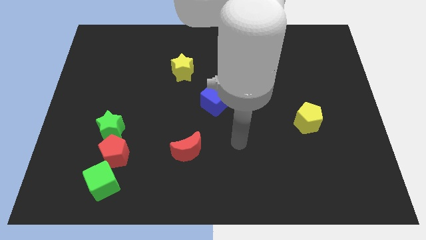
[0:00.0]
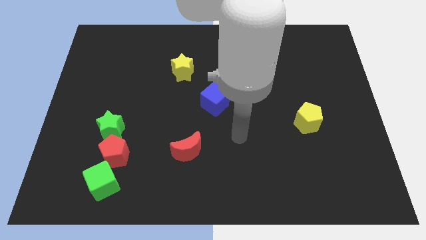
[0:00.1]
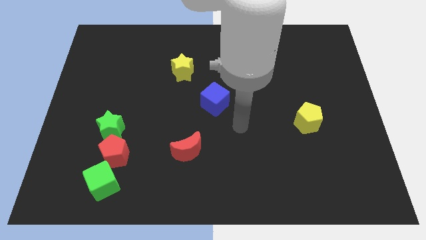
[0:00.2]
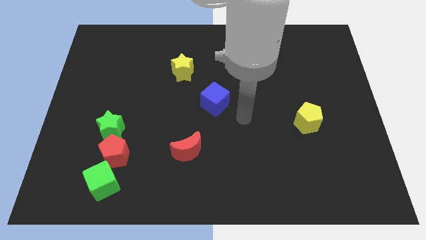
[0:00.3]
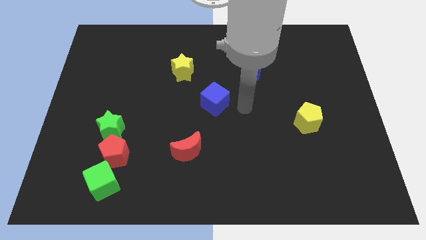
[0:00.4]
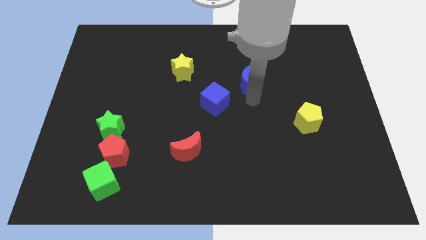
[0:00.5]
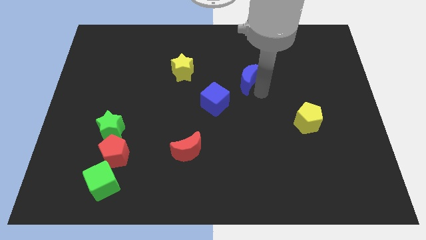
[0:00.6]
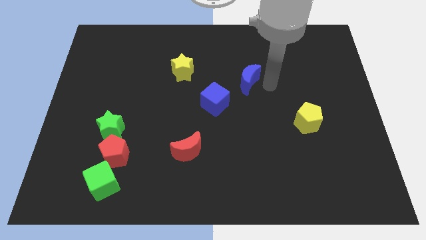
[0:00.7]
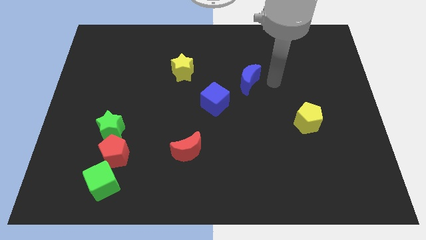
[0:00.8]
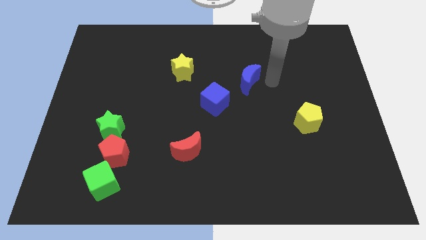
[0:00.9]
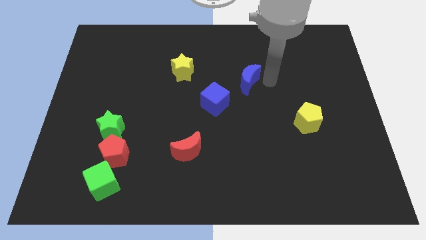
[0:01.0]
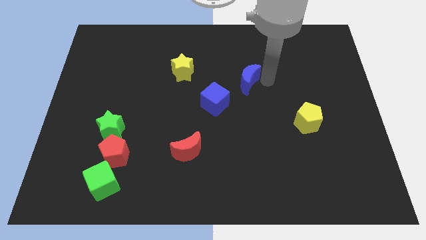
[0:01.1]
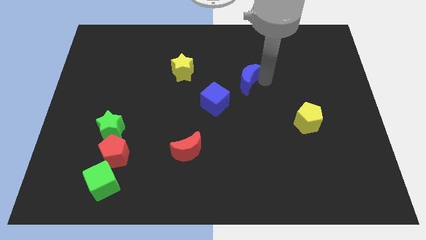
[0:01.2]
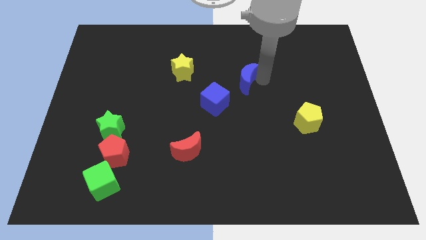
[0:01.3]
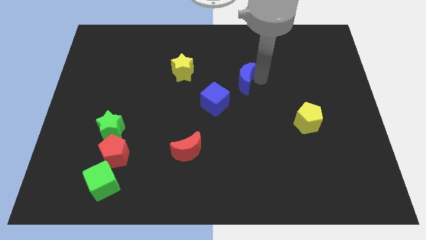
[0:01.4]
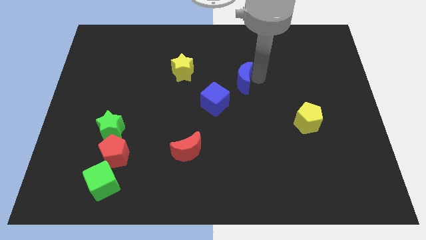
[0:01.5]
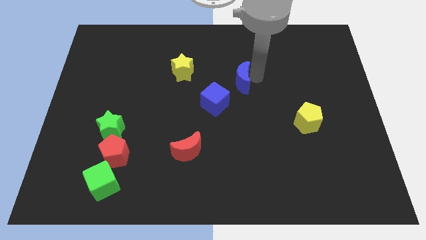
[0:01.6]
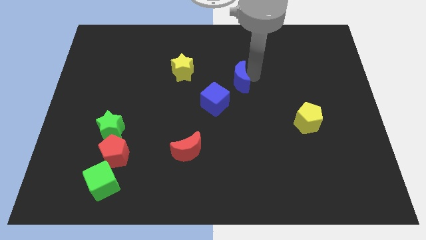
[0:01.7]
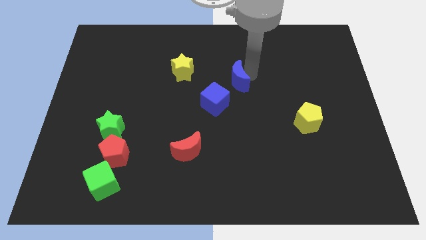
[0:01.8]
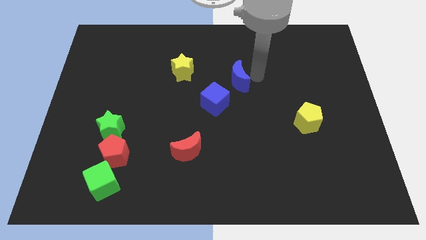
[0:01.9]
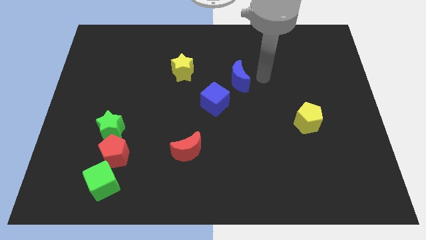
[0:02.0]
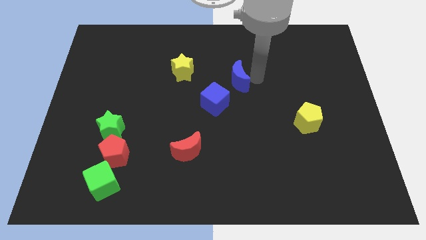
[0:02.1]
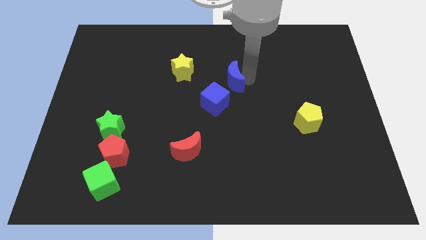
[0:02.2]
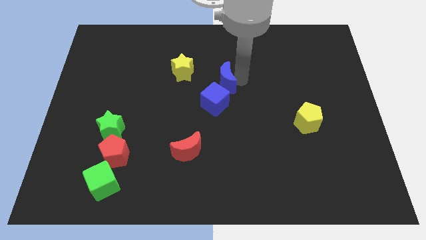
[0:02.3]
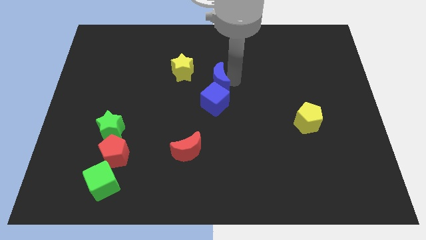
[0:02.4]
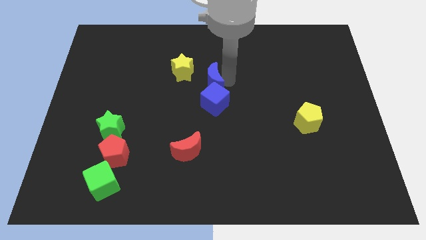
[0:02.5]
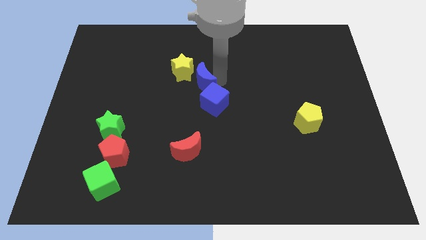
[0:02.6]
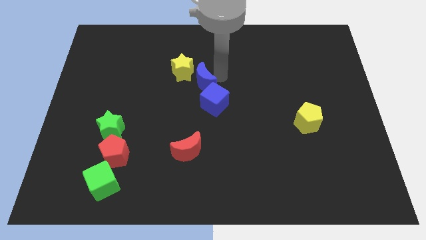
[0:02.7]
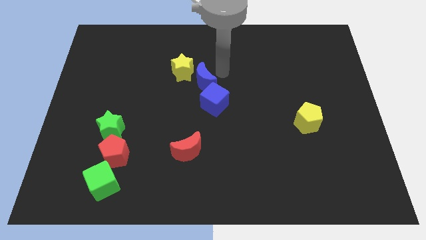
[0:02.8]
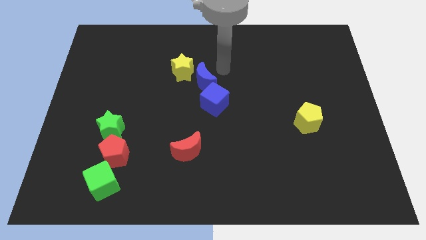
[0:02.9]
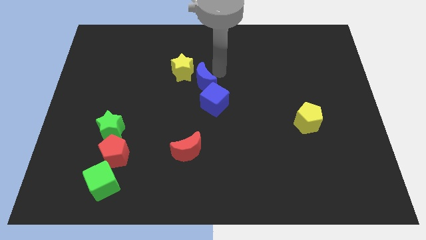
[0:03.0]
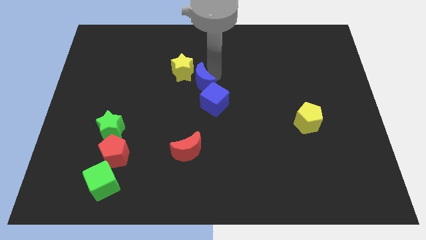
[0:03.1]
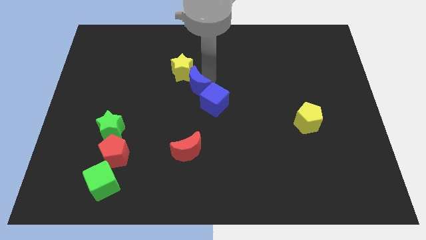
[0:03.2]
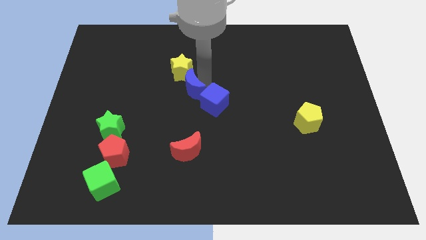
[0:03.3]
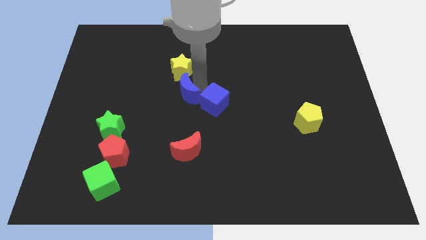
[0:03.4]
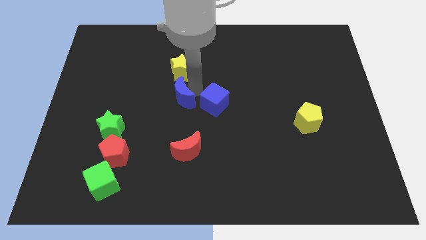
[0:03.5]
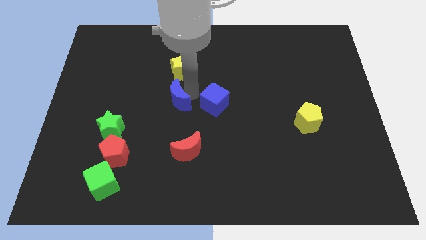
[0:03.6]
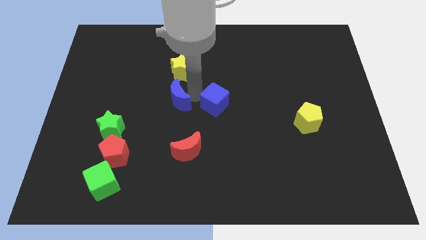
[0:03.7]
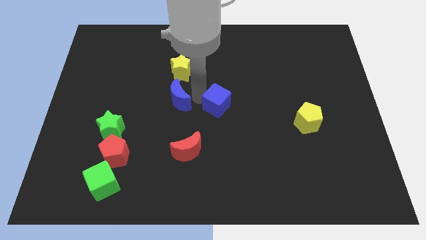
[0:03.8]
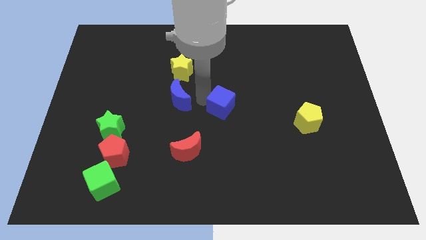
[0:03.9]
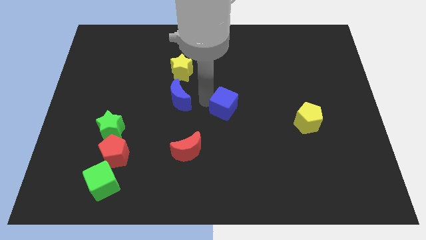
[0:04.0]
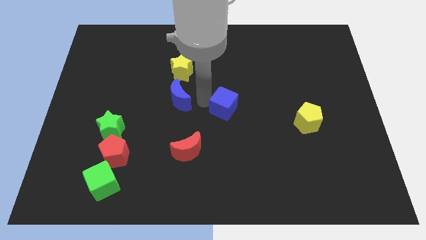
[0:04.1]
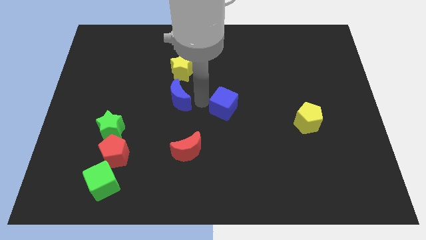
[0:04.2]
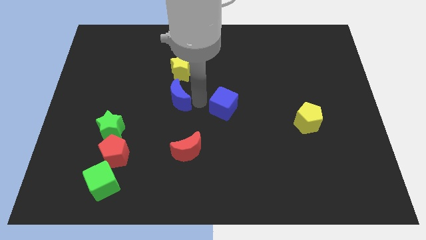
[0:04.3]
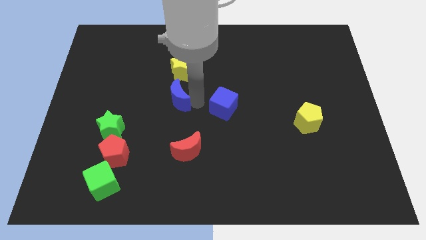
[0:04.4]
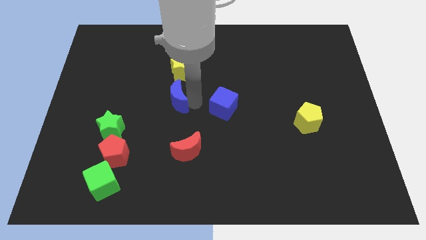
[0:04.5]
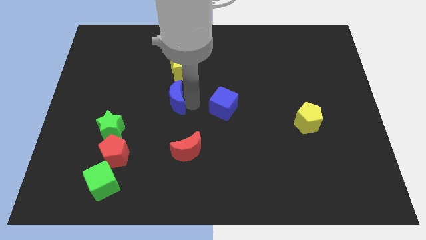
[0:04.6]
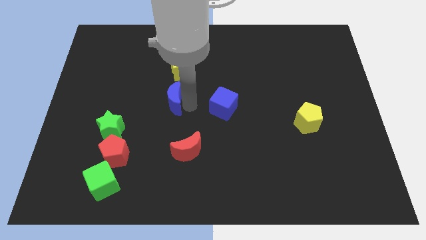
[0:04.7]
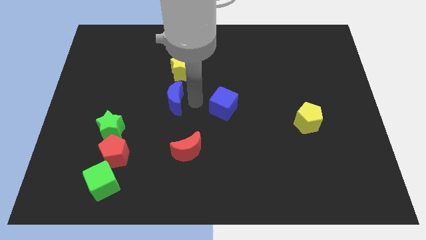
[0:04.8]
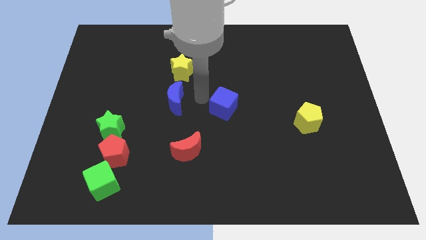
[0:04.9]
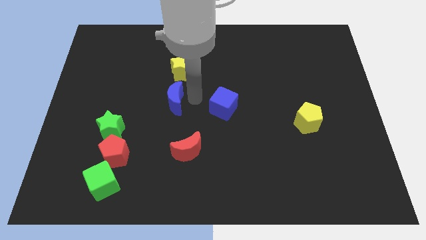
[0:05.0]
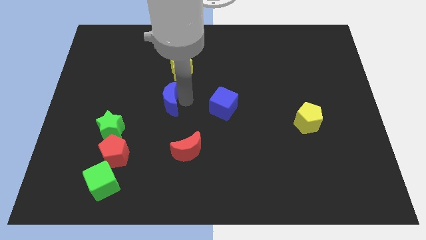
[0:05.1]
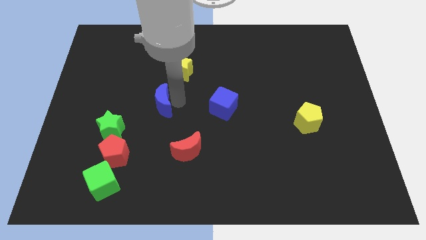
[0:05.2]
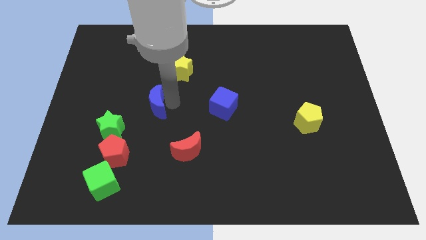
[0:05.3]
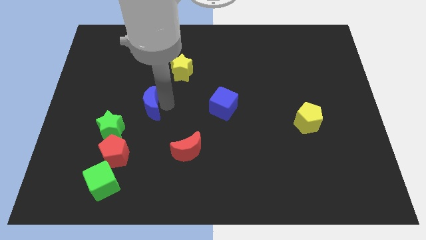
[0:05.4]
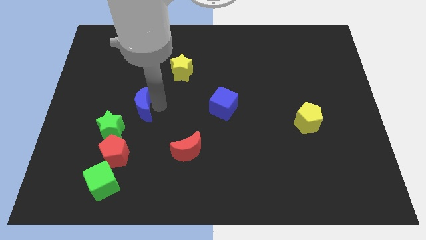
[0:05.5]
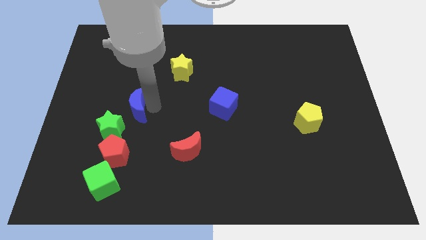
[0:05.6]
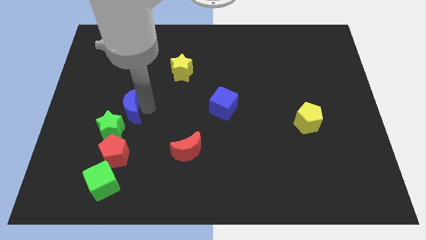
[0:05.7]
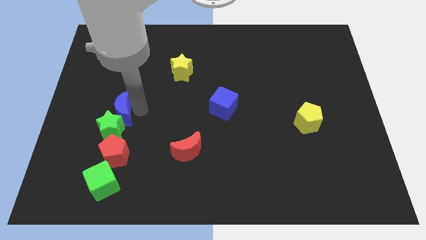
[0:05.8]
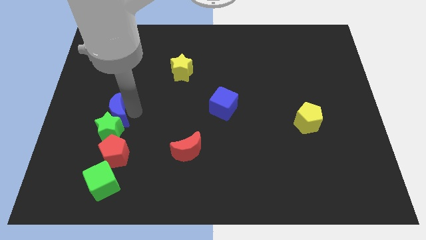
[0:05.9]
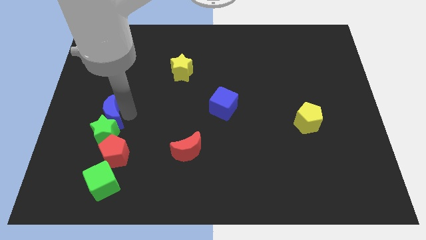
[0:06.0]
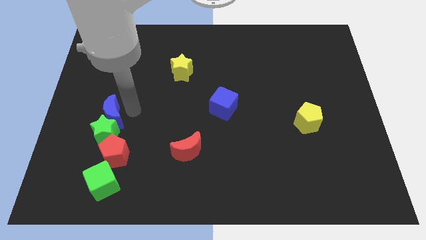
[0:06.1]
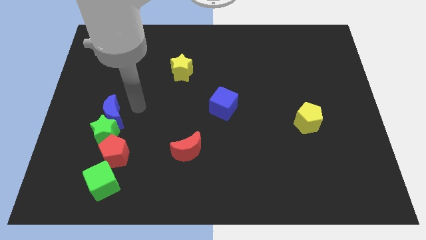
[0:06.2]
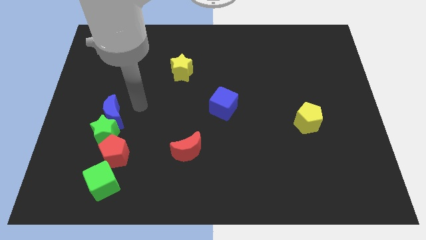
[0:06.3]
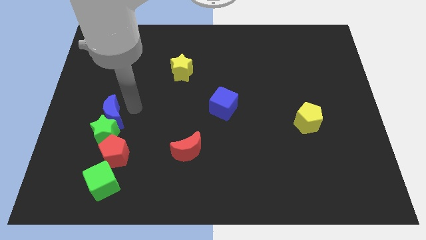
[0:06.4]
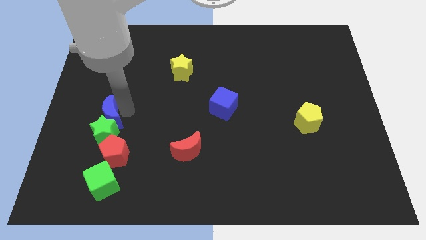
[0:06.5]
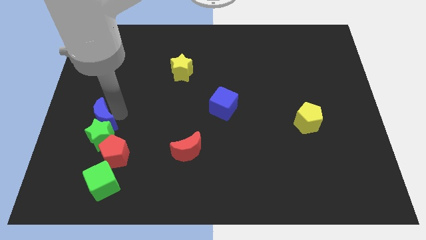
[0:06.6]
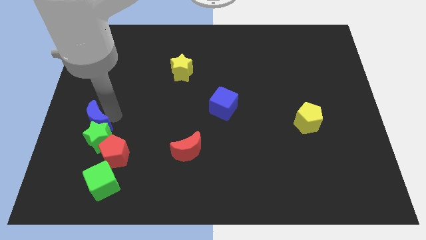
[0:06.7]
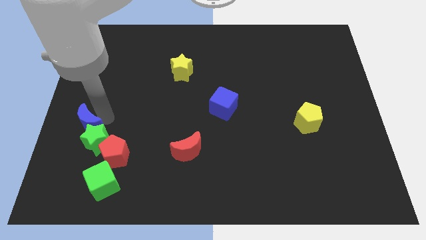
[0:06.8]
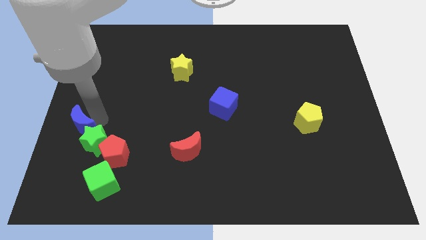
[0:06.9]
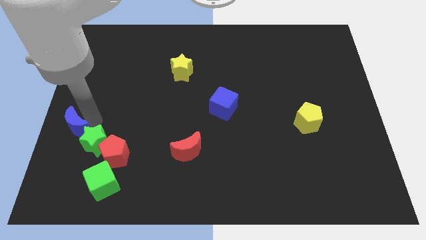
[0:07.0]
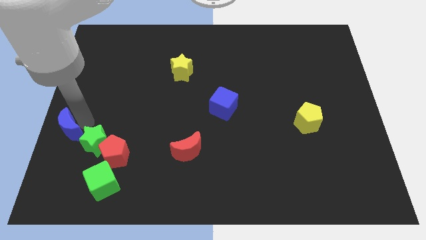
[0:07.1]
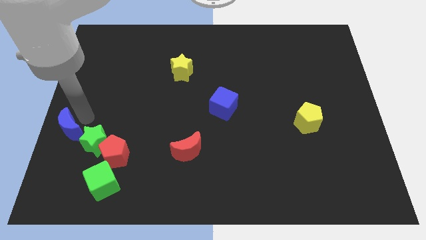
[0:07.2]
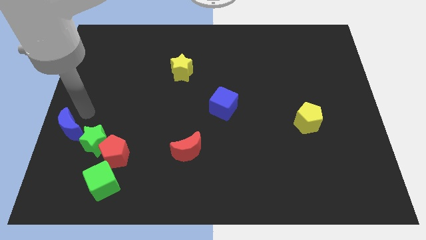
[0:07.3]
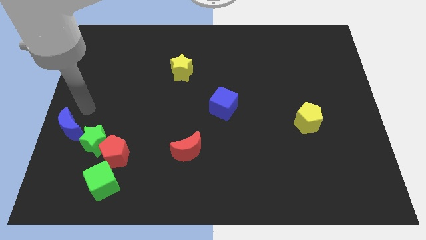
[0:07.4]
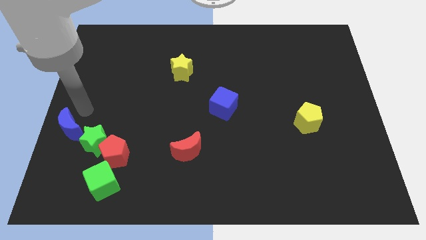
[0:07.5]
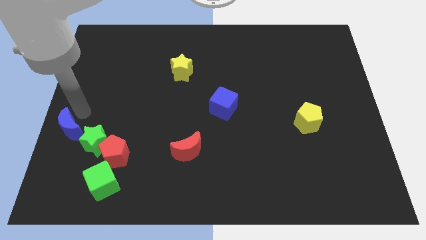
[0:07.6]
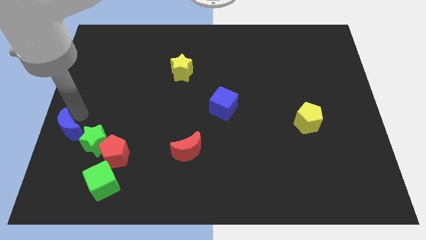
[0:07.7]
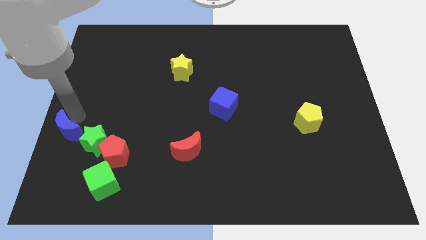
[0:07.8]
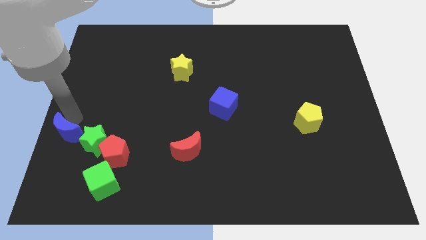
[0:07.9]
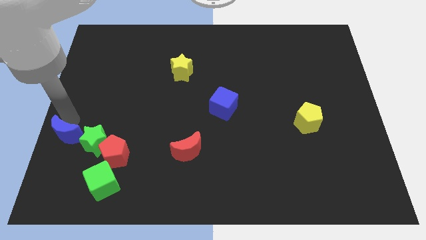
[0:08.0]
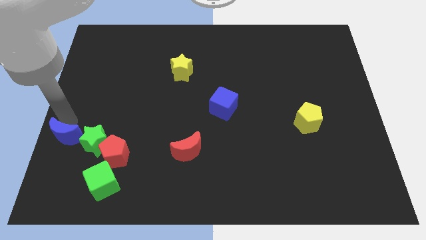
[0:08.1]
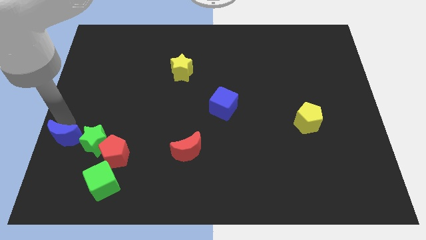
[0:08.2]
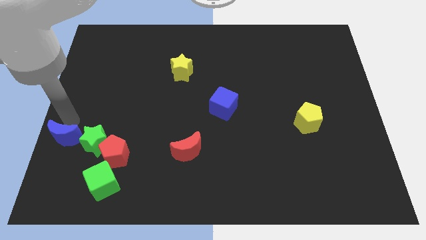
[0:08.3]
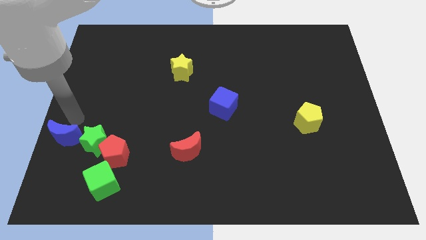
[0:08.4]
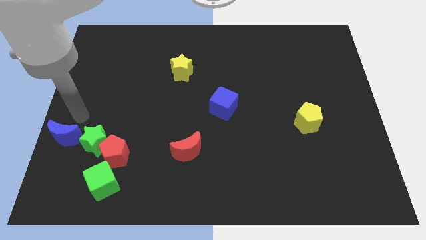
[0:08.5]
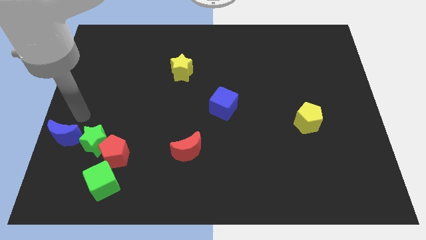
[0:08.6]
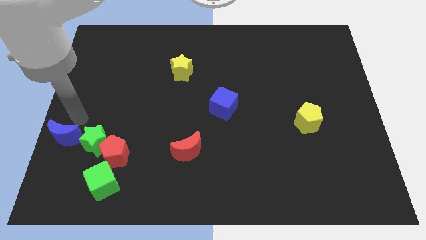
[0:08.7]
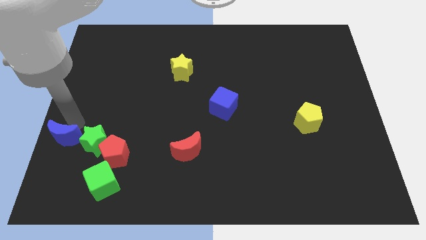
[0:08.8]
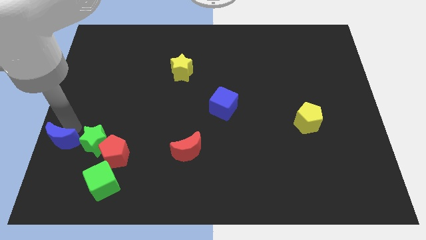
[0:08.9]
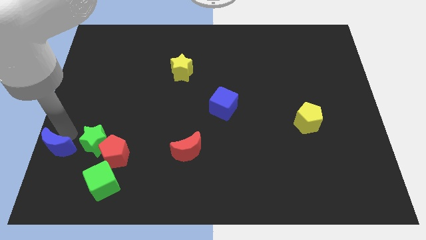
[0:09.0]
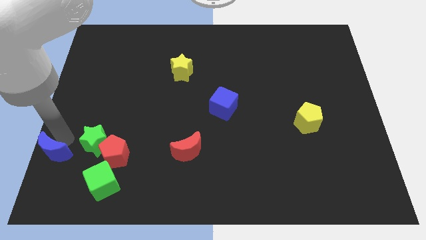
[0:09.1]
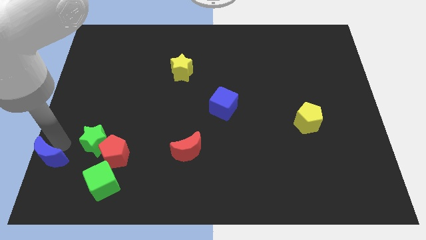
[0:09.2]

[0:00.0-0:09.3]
put the blue moon to the bottom left
